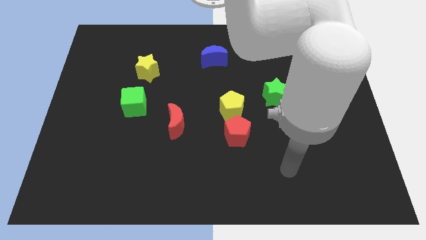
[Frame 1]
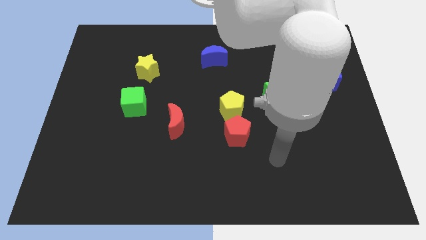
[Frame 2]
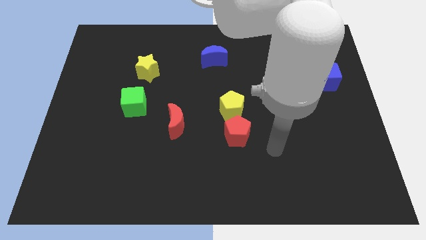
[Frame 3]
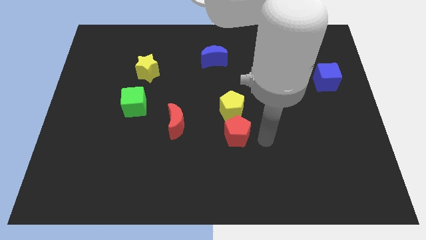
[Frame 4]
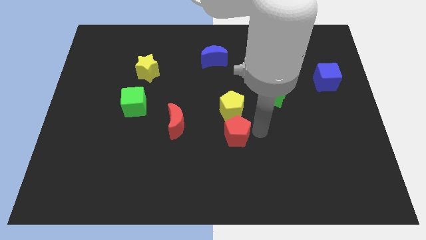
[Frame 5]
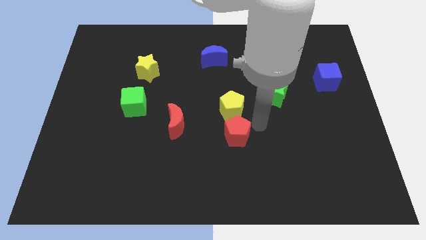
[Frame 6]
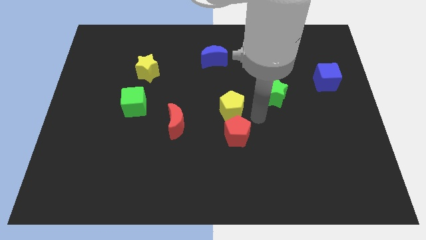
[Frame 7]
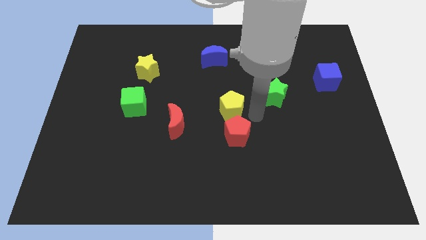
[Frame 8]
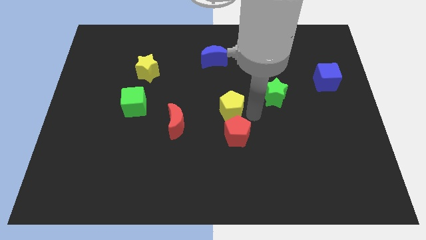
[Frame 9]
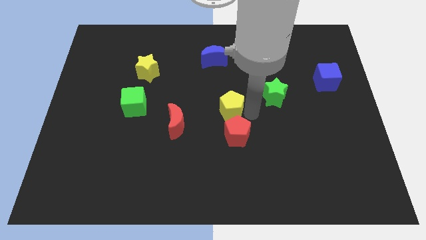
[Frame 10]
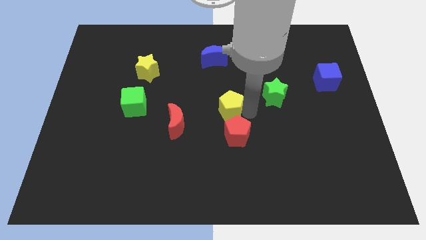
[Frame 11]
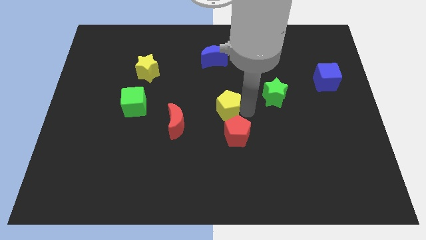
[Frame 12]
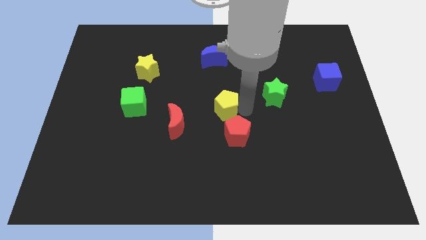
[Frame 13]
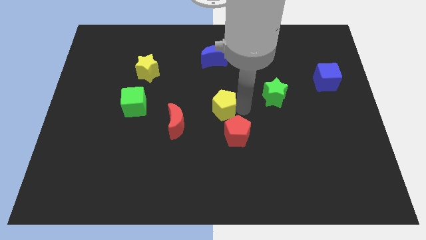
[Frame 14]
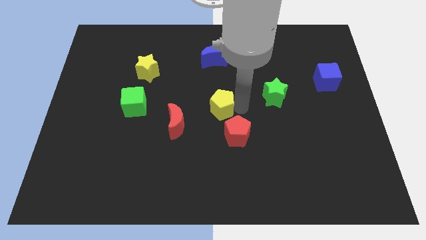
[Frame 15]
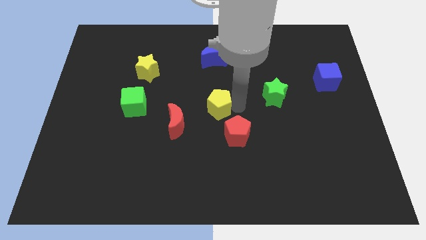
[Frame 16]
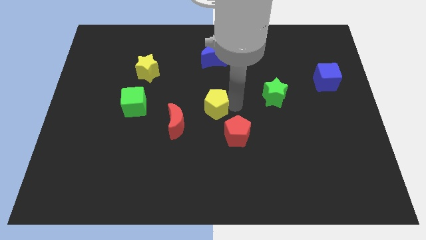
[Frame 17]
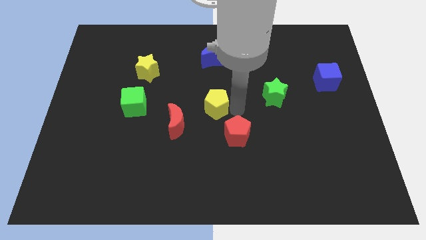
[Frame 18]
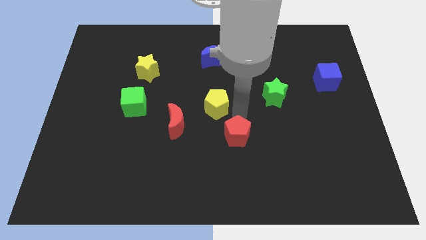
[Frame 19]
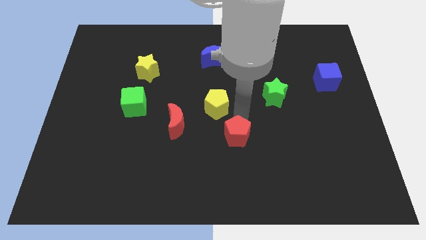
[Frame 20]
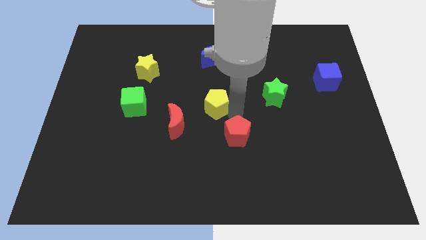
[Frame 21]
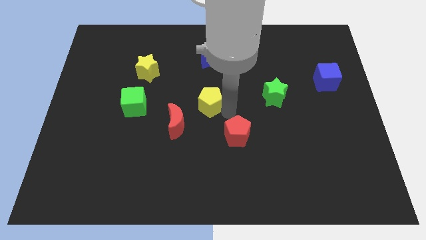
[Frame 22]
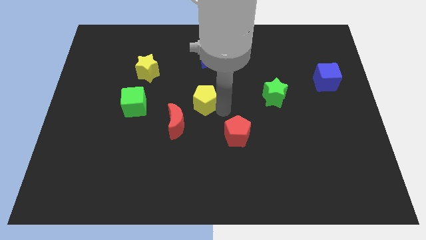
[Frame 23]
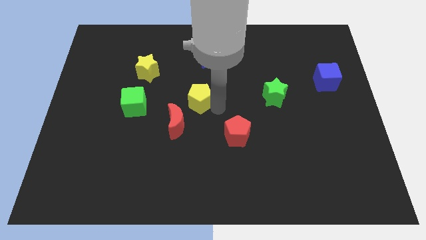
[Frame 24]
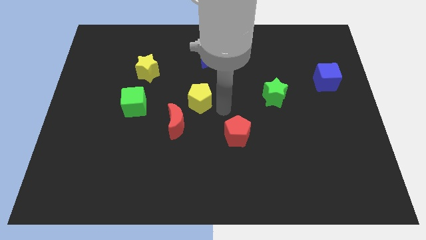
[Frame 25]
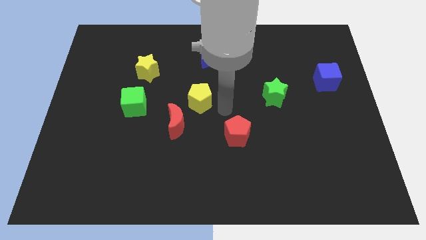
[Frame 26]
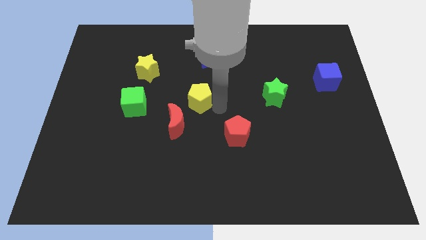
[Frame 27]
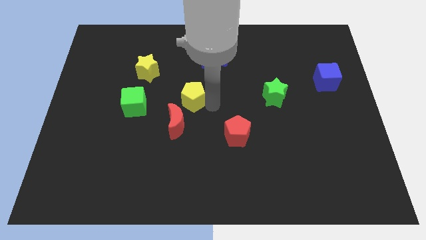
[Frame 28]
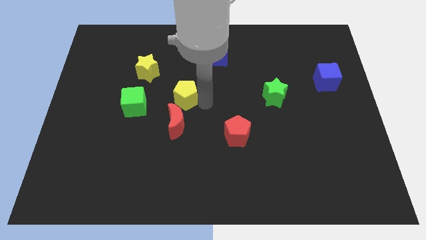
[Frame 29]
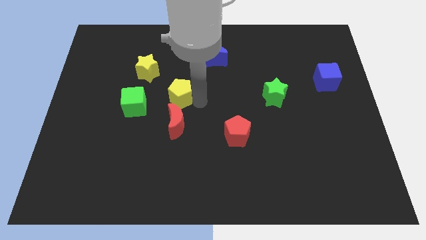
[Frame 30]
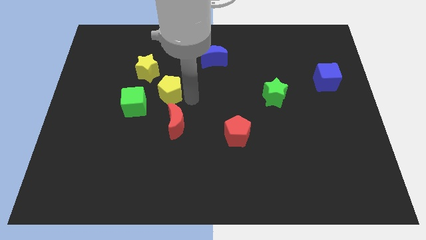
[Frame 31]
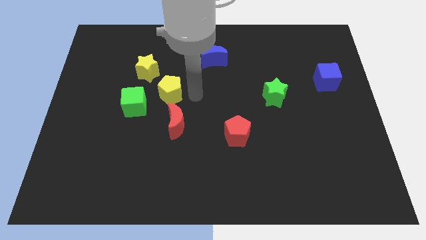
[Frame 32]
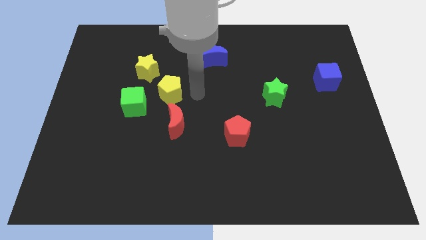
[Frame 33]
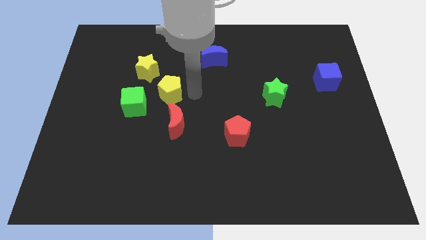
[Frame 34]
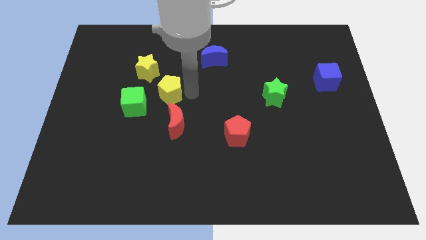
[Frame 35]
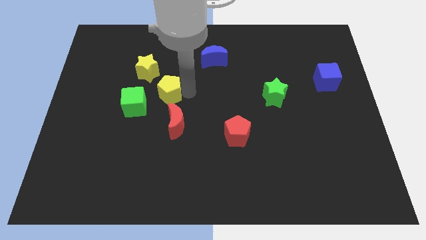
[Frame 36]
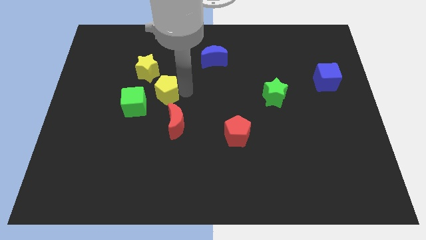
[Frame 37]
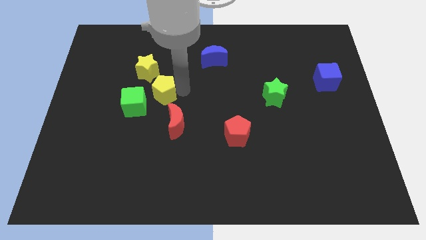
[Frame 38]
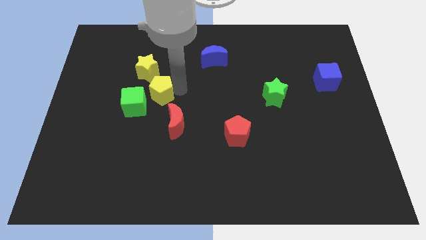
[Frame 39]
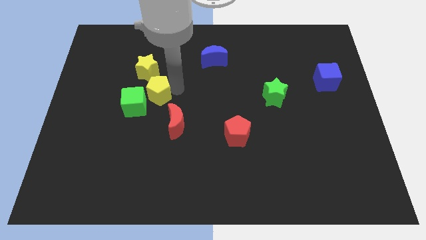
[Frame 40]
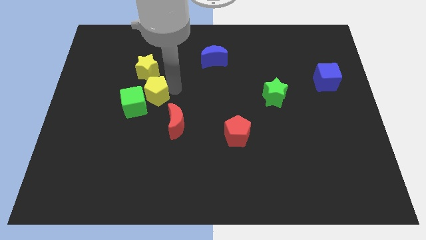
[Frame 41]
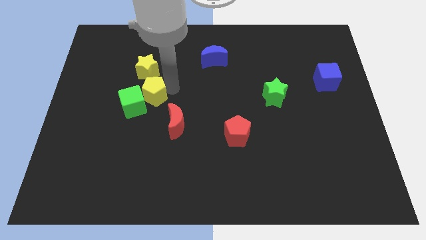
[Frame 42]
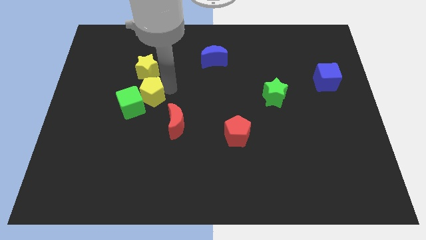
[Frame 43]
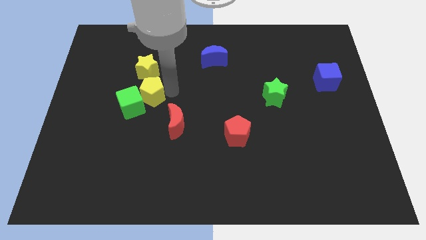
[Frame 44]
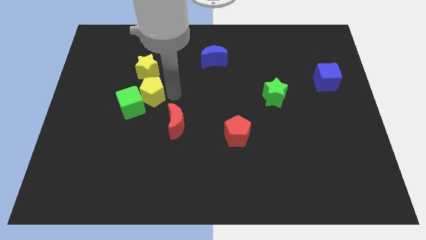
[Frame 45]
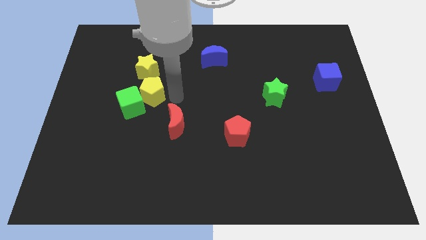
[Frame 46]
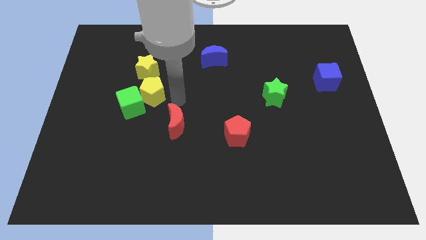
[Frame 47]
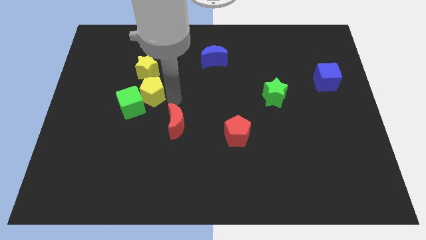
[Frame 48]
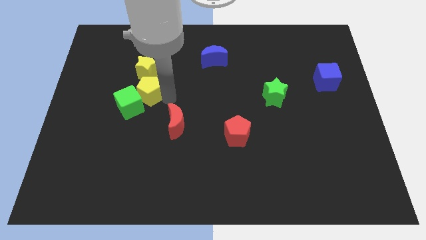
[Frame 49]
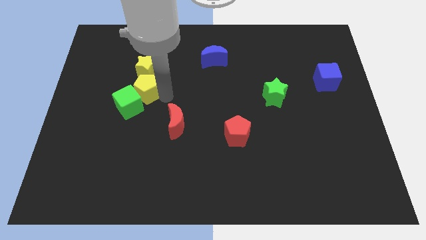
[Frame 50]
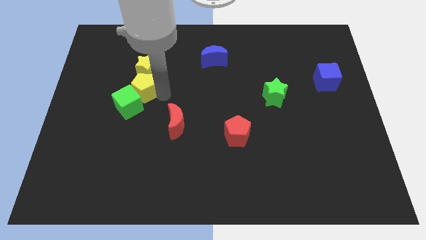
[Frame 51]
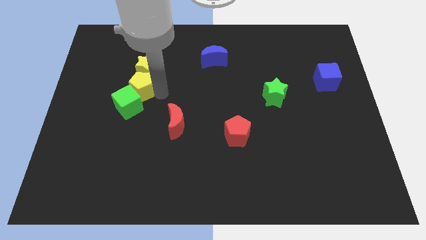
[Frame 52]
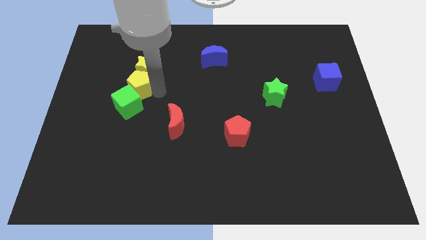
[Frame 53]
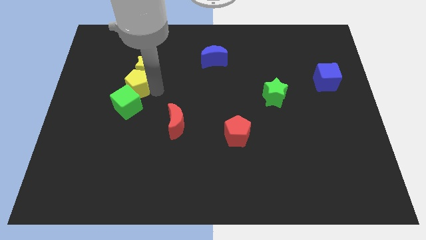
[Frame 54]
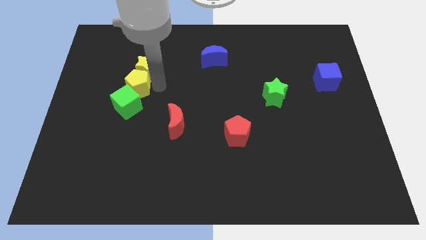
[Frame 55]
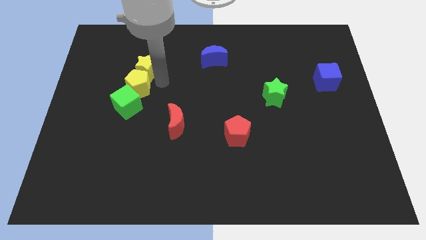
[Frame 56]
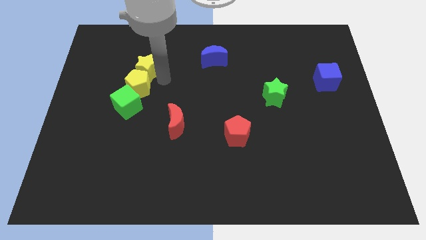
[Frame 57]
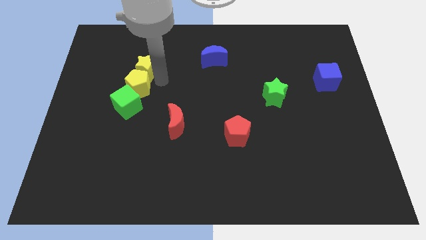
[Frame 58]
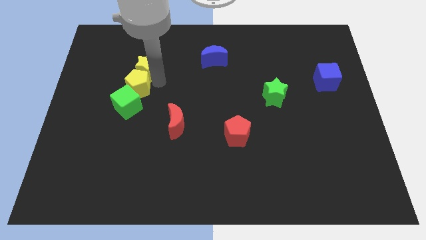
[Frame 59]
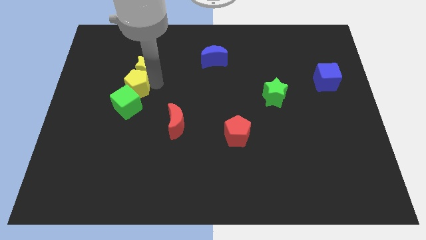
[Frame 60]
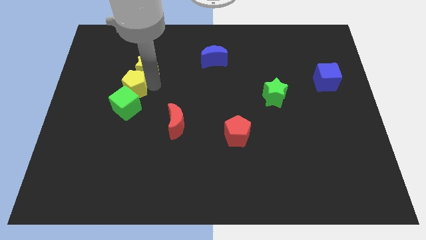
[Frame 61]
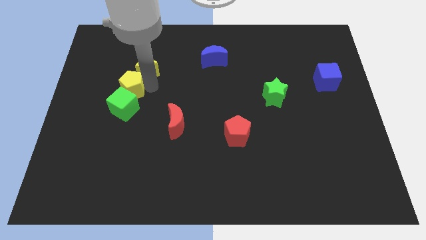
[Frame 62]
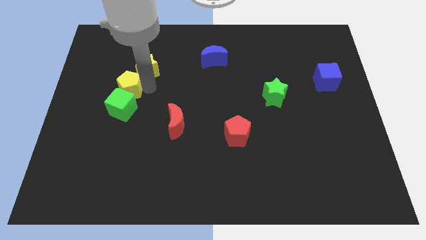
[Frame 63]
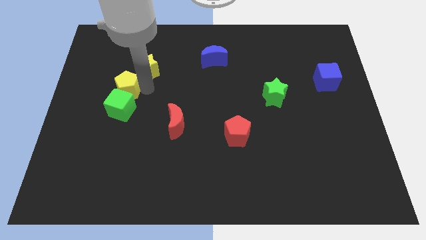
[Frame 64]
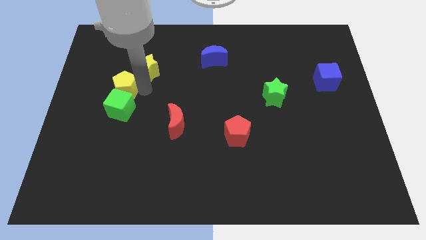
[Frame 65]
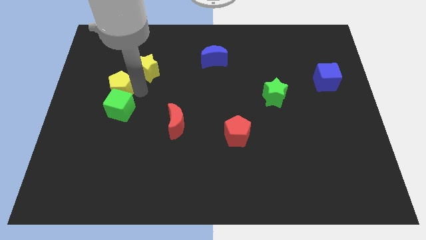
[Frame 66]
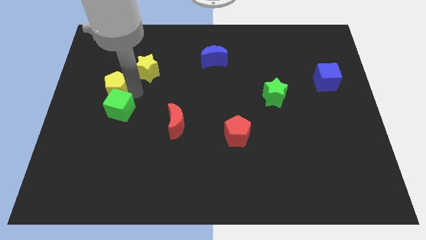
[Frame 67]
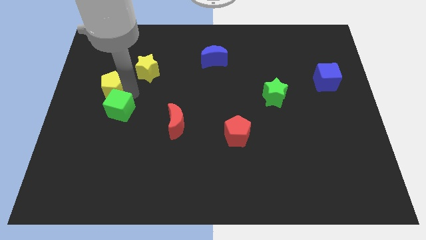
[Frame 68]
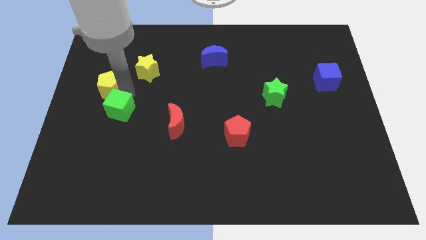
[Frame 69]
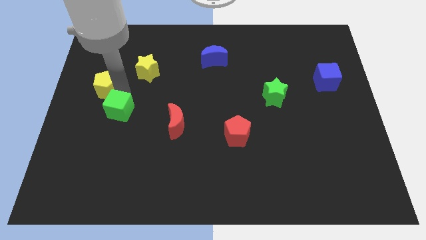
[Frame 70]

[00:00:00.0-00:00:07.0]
slide the yellow pentagon to the center left
